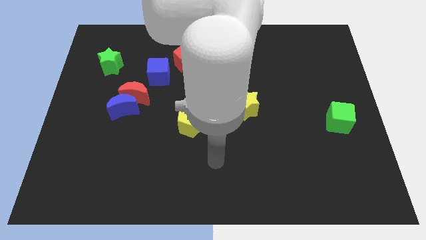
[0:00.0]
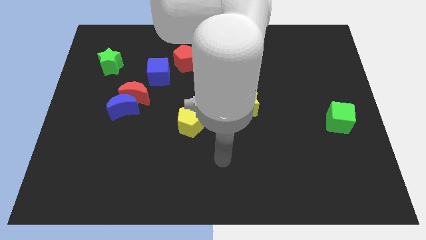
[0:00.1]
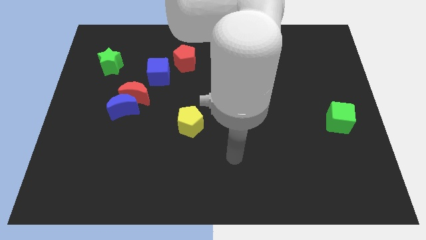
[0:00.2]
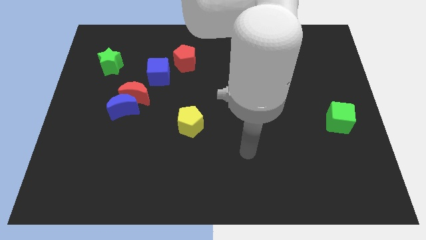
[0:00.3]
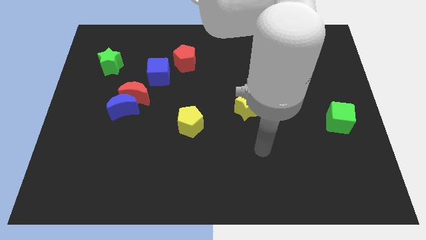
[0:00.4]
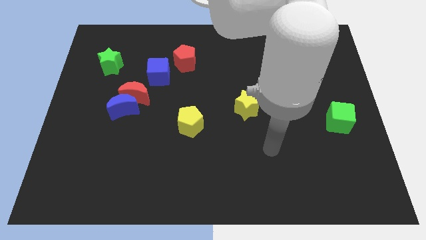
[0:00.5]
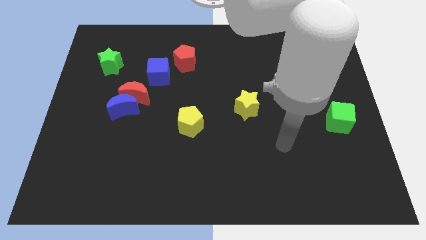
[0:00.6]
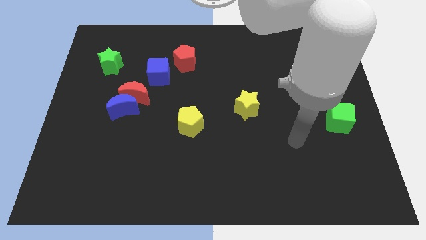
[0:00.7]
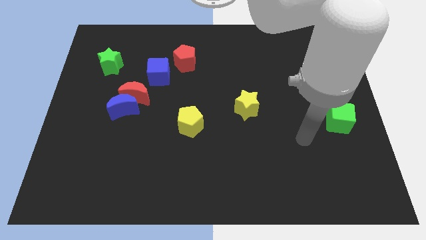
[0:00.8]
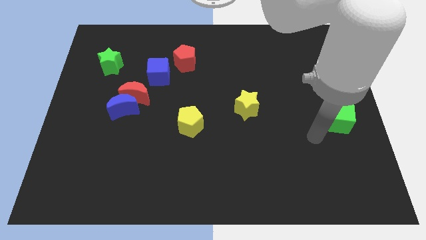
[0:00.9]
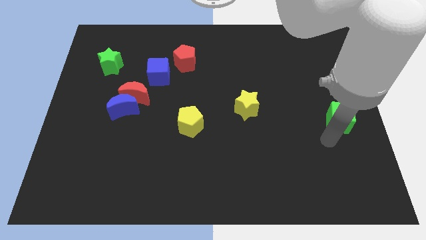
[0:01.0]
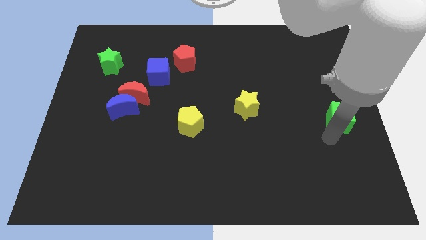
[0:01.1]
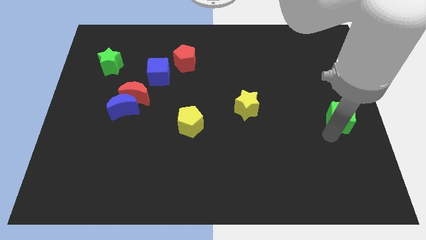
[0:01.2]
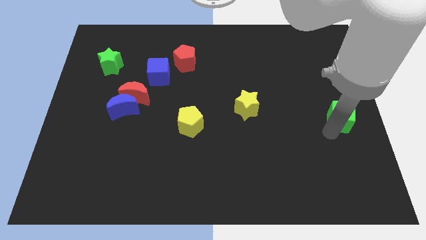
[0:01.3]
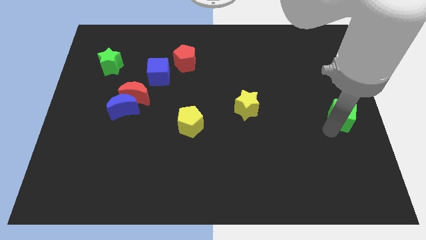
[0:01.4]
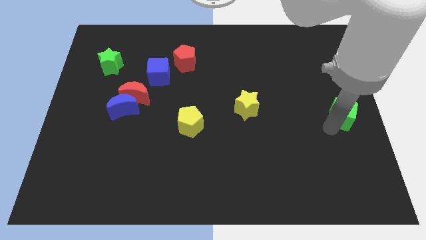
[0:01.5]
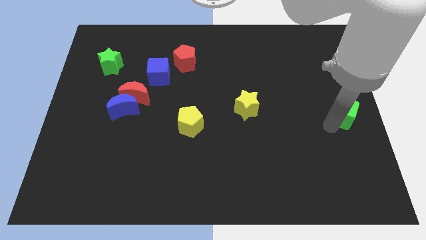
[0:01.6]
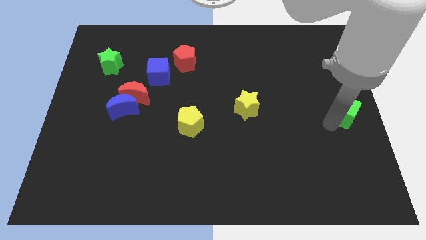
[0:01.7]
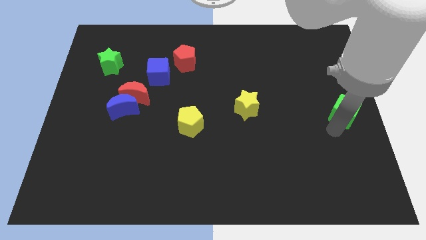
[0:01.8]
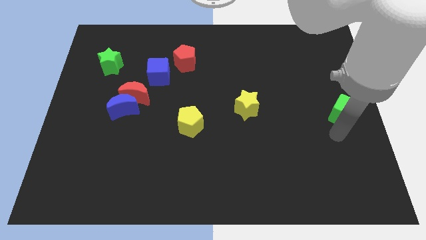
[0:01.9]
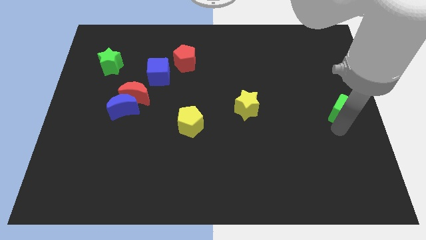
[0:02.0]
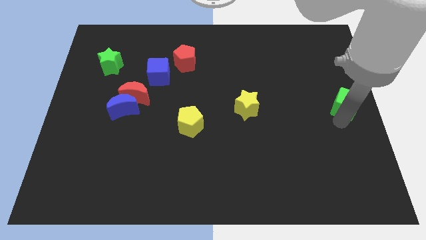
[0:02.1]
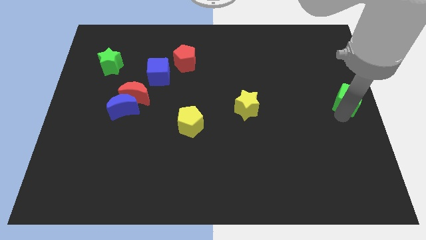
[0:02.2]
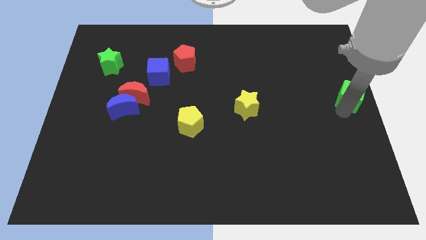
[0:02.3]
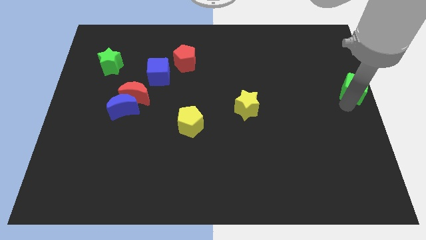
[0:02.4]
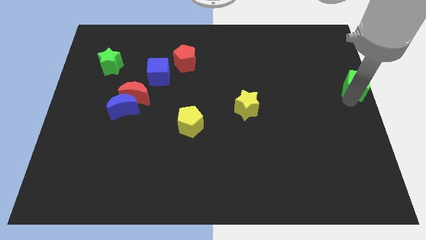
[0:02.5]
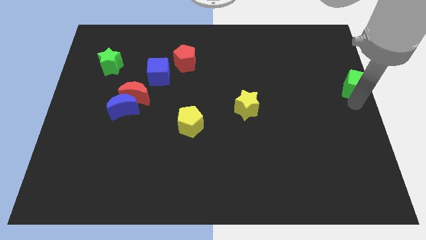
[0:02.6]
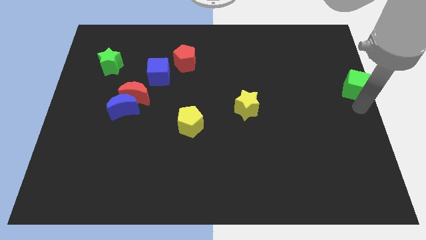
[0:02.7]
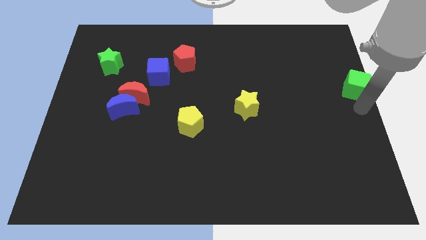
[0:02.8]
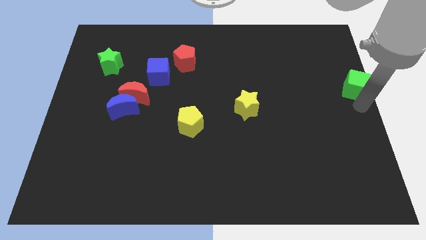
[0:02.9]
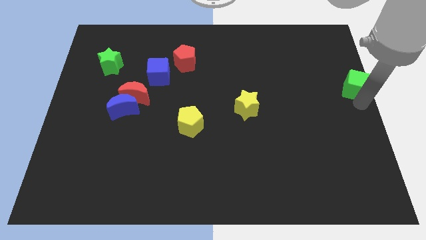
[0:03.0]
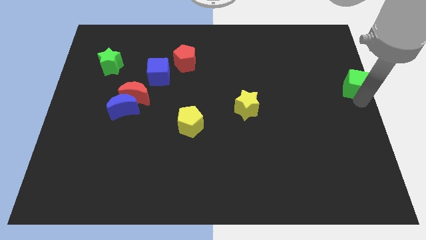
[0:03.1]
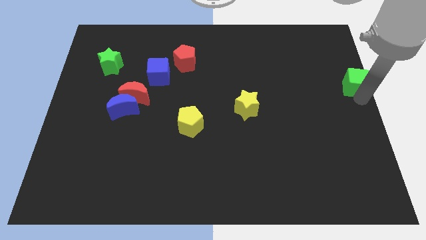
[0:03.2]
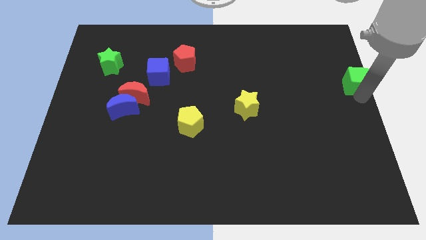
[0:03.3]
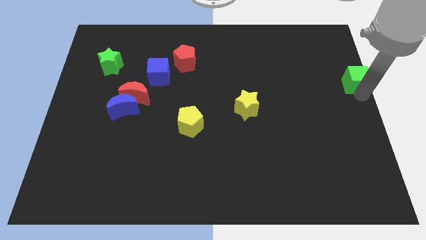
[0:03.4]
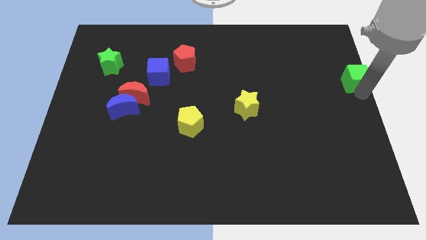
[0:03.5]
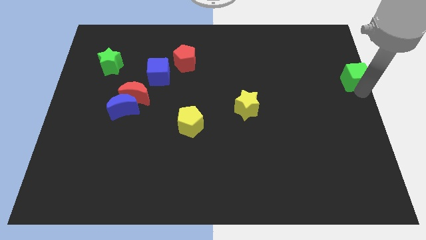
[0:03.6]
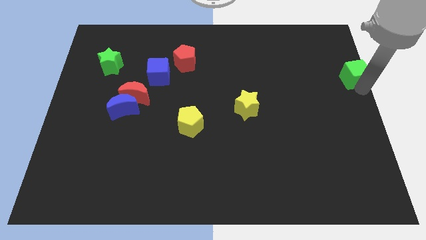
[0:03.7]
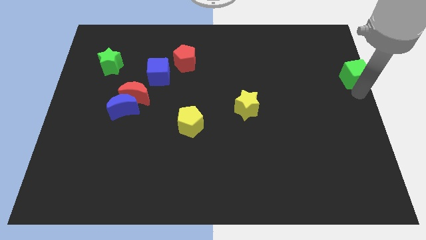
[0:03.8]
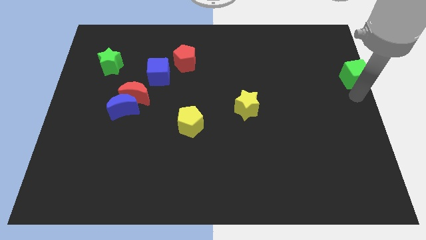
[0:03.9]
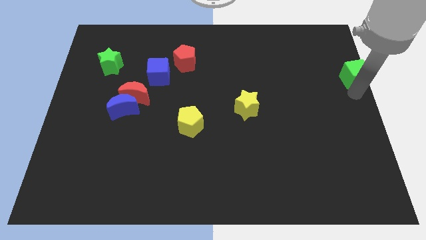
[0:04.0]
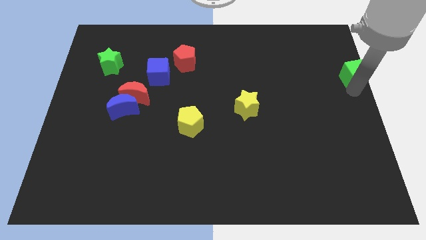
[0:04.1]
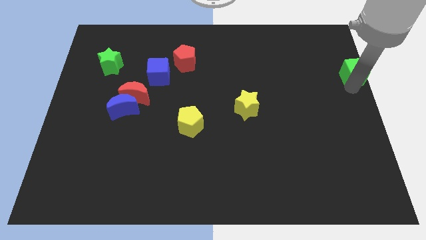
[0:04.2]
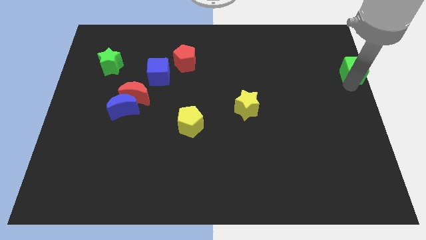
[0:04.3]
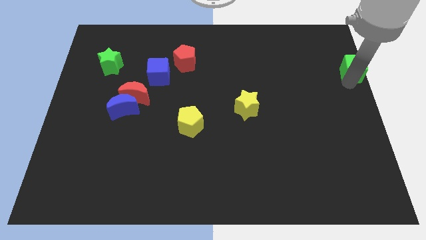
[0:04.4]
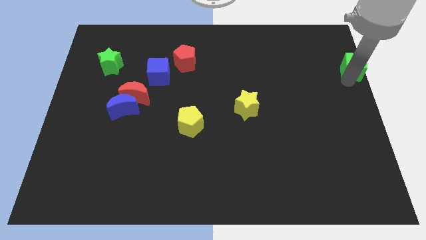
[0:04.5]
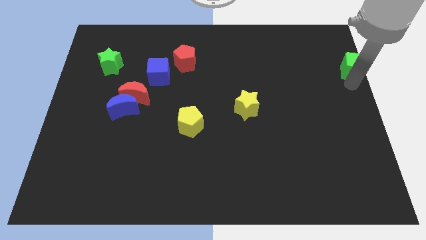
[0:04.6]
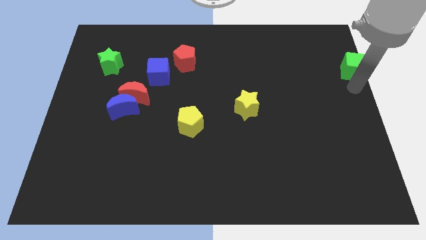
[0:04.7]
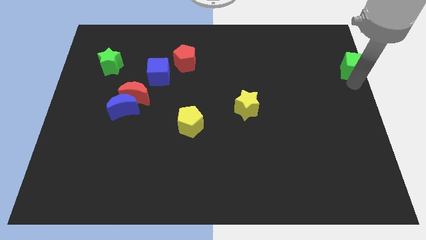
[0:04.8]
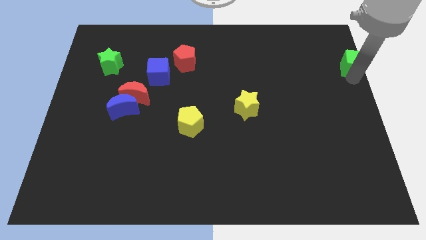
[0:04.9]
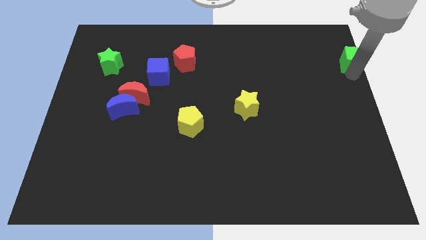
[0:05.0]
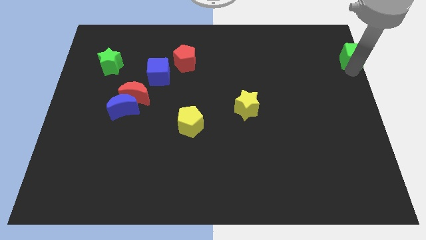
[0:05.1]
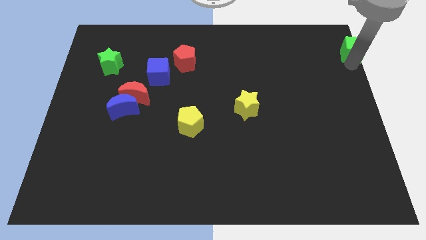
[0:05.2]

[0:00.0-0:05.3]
move the green cube to the top right

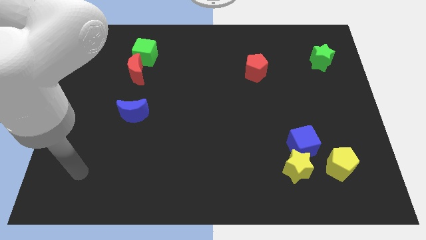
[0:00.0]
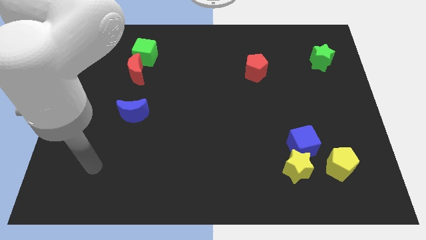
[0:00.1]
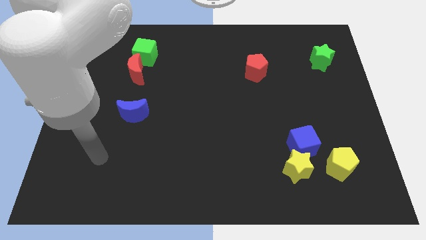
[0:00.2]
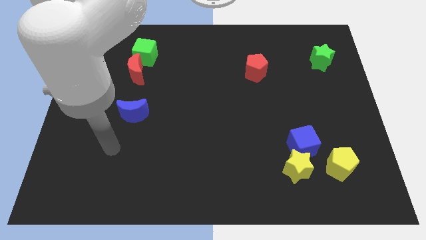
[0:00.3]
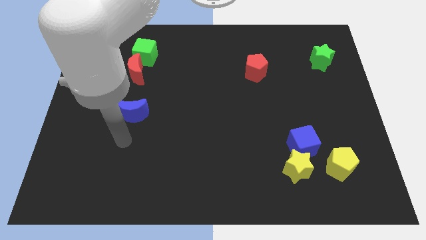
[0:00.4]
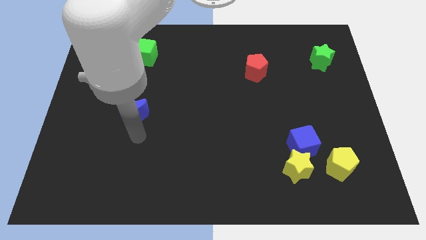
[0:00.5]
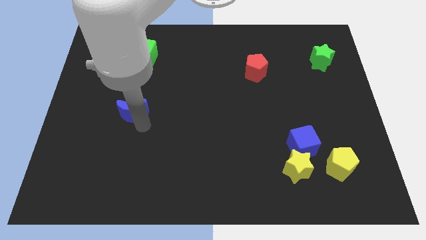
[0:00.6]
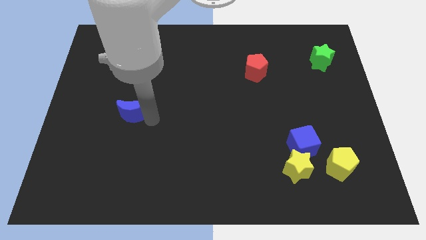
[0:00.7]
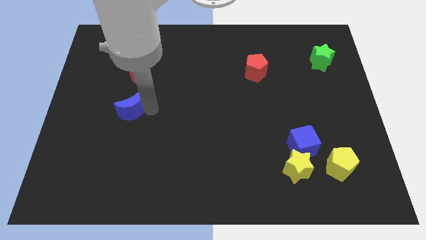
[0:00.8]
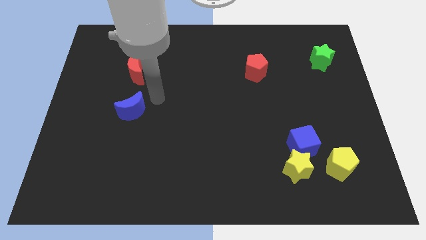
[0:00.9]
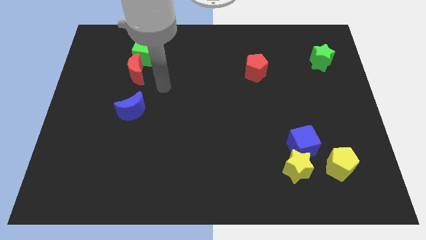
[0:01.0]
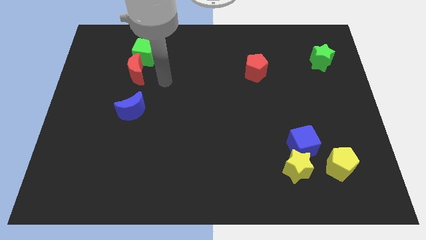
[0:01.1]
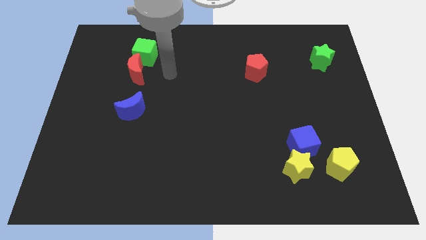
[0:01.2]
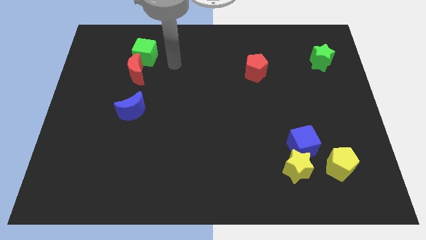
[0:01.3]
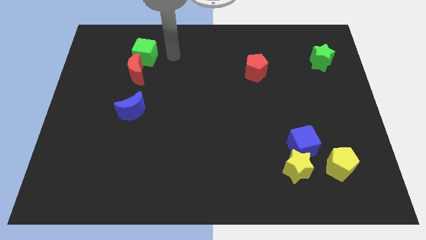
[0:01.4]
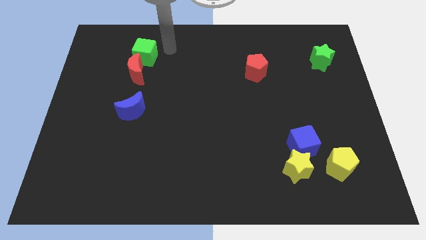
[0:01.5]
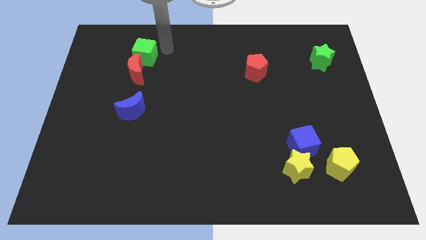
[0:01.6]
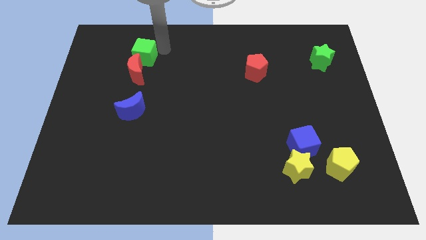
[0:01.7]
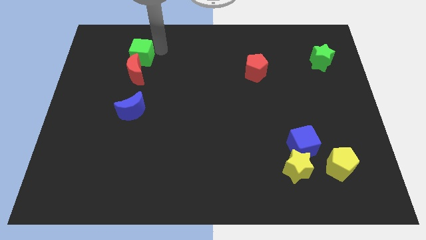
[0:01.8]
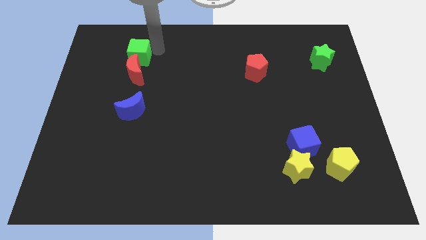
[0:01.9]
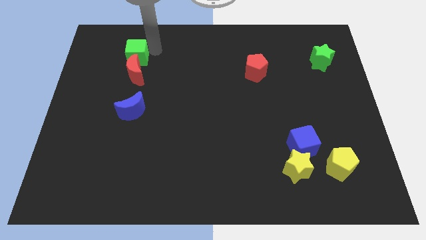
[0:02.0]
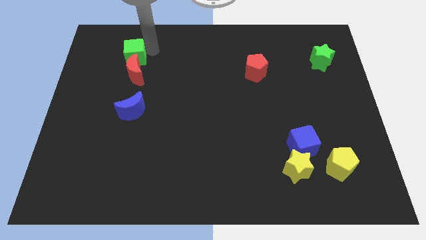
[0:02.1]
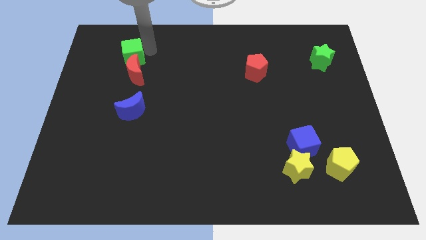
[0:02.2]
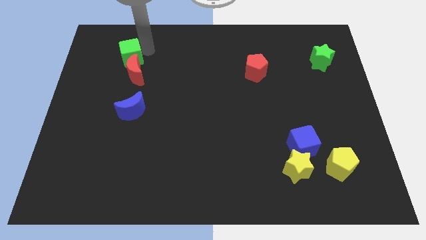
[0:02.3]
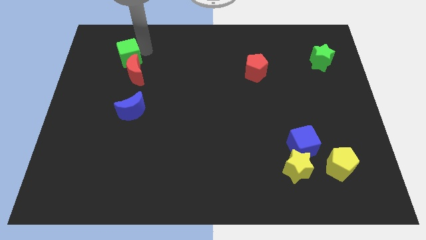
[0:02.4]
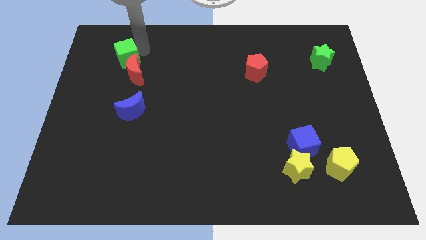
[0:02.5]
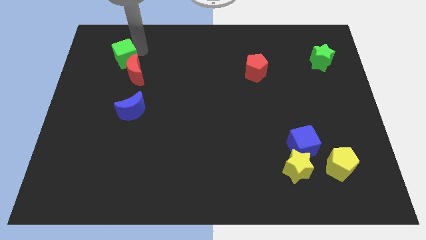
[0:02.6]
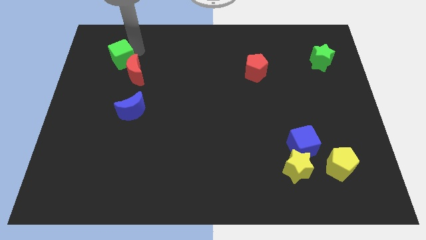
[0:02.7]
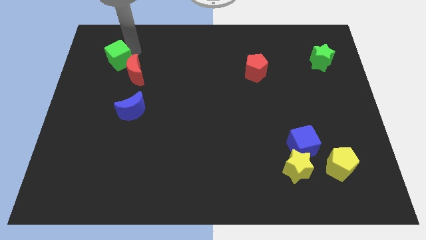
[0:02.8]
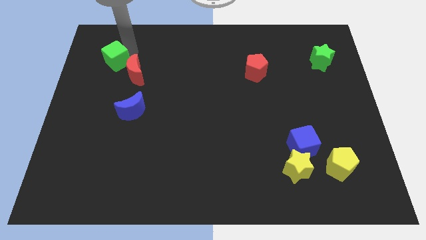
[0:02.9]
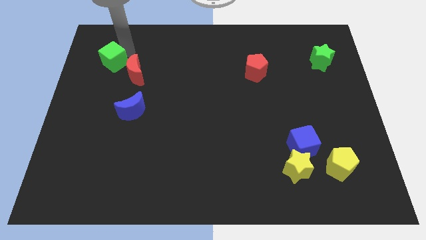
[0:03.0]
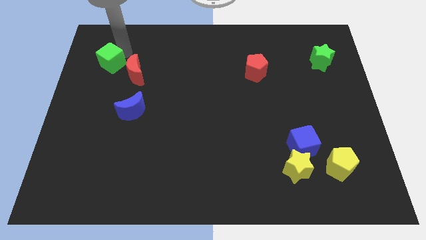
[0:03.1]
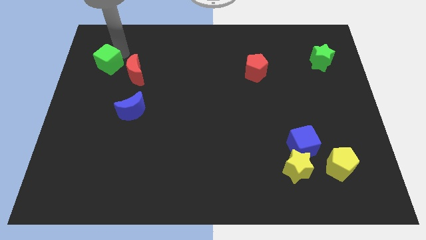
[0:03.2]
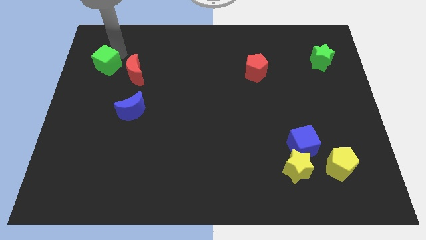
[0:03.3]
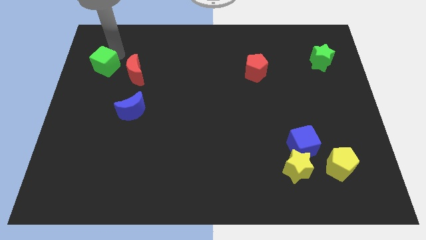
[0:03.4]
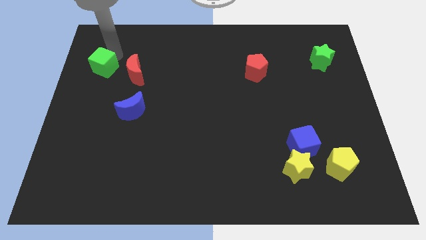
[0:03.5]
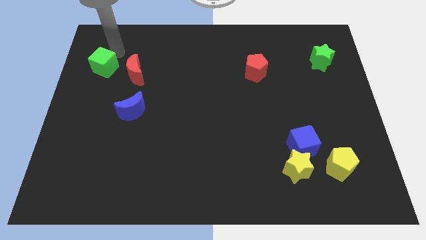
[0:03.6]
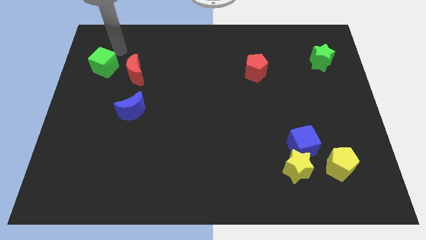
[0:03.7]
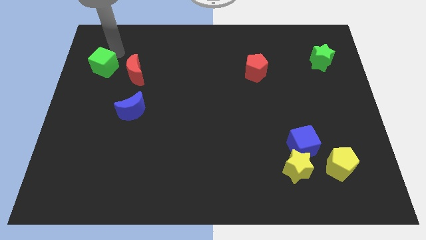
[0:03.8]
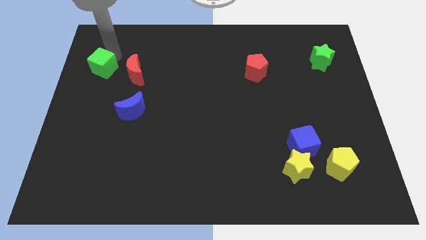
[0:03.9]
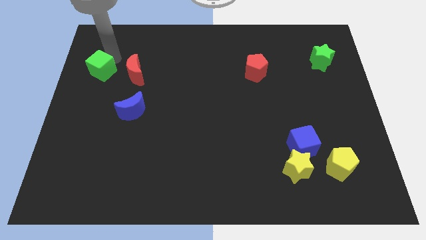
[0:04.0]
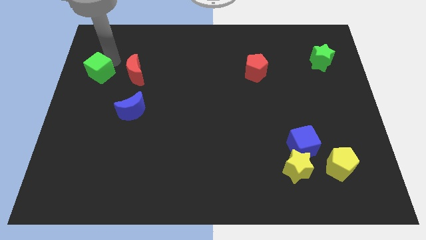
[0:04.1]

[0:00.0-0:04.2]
put the green cube to the center left
